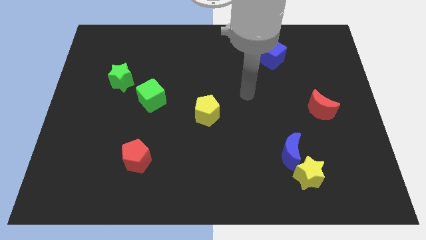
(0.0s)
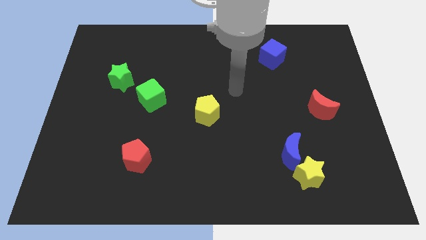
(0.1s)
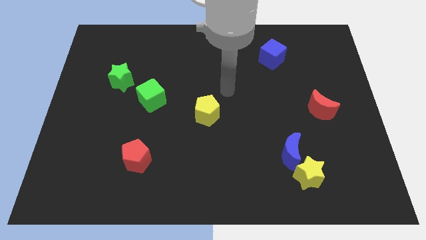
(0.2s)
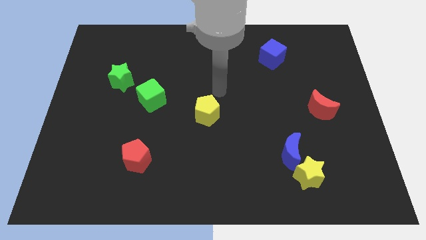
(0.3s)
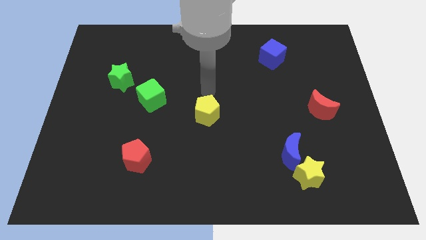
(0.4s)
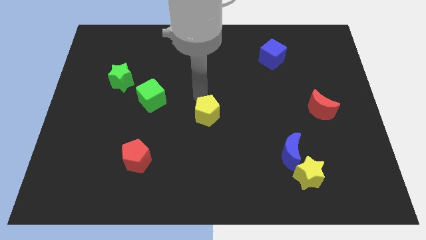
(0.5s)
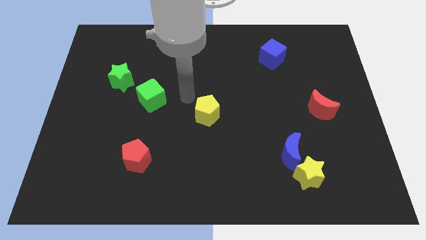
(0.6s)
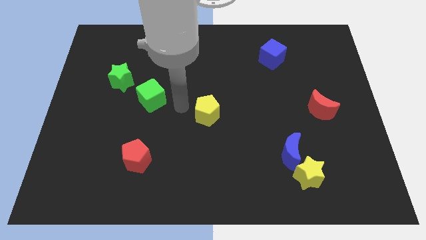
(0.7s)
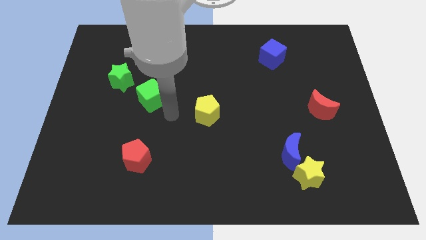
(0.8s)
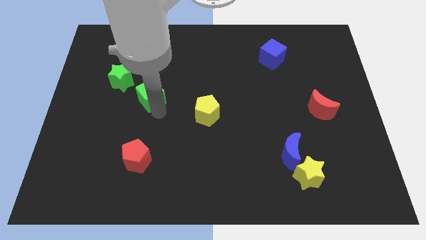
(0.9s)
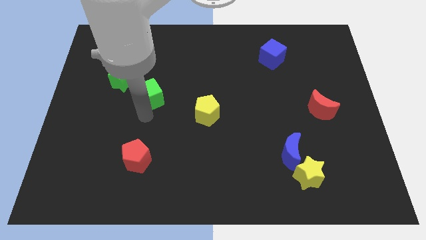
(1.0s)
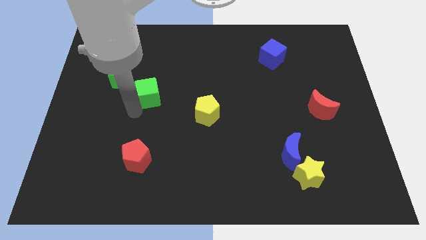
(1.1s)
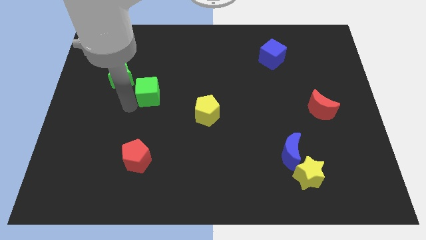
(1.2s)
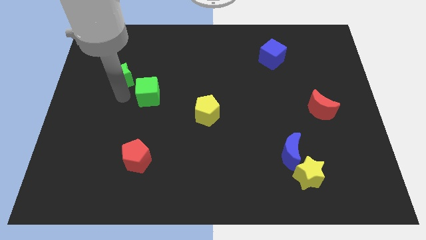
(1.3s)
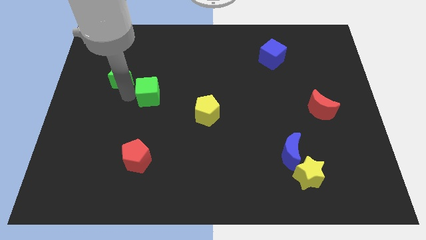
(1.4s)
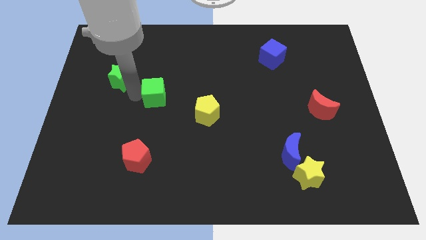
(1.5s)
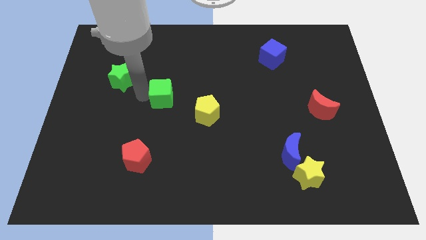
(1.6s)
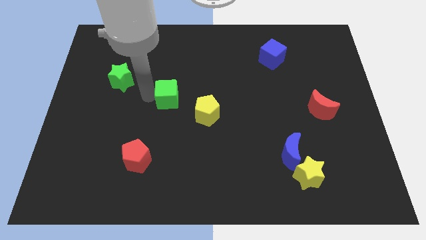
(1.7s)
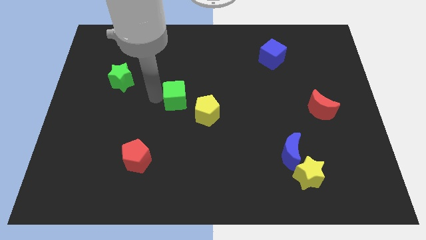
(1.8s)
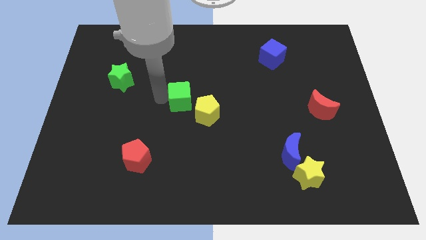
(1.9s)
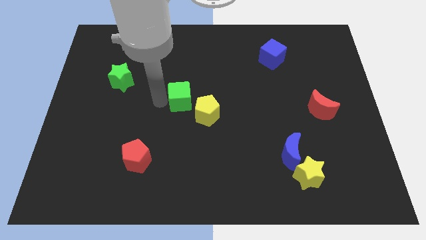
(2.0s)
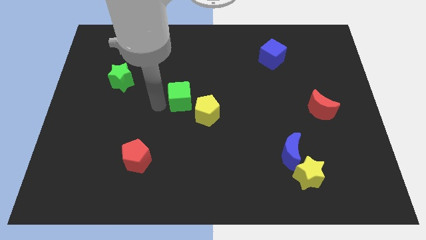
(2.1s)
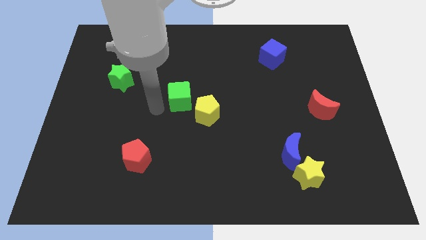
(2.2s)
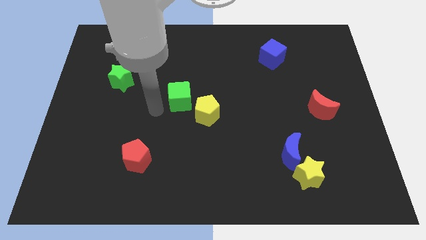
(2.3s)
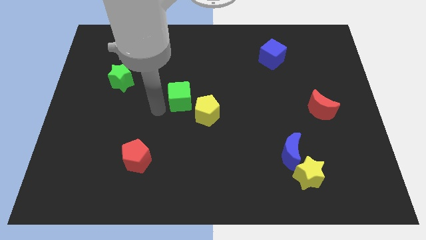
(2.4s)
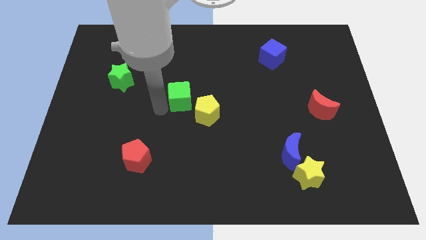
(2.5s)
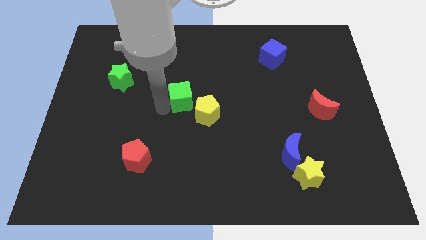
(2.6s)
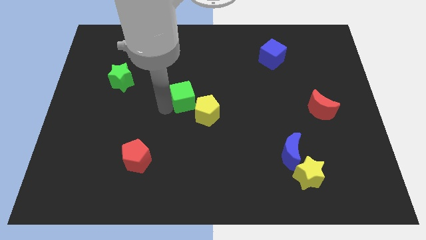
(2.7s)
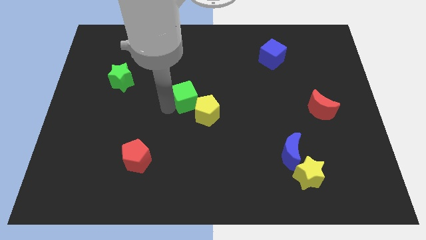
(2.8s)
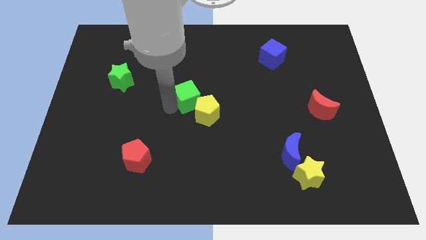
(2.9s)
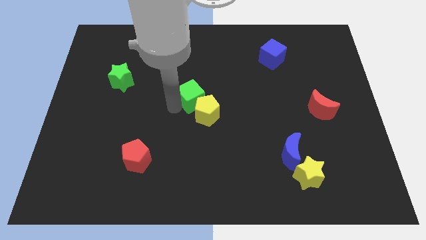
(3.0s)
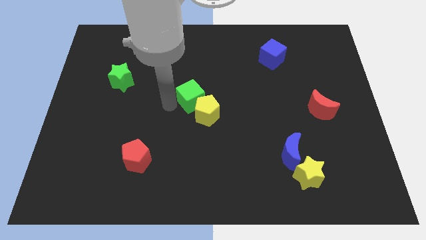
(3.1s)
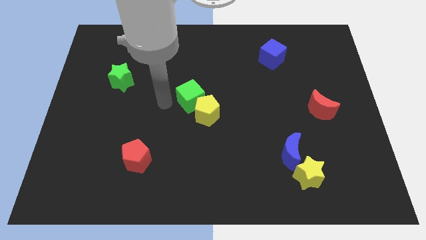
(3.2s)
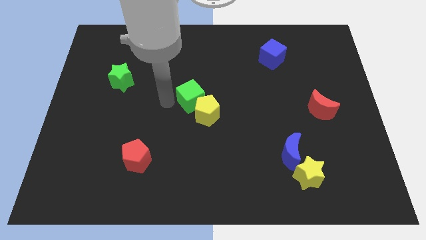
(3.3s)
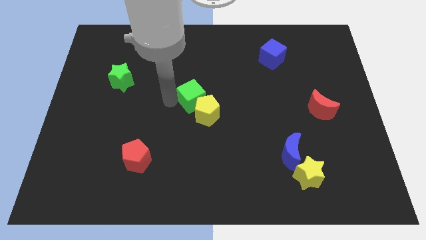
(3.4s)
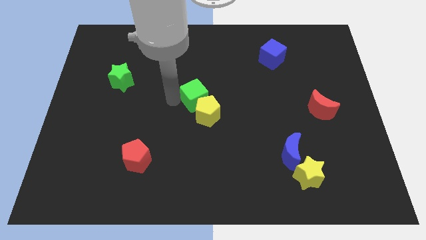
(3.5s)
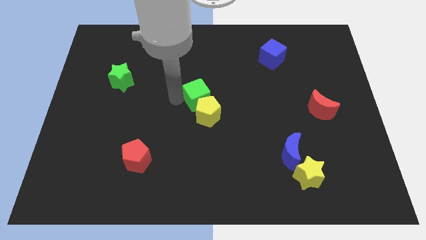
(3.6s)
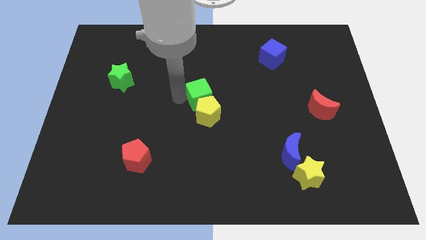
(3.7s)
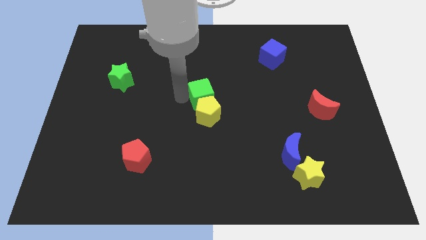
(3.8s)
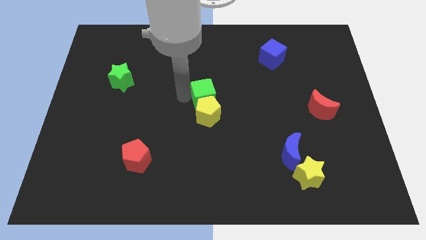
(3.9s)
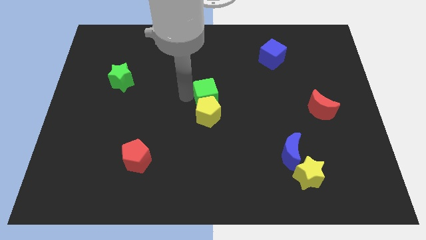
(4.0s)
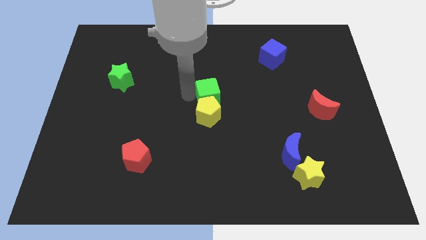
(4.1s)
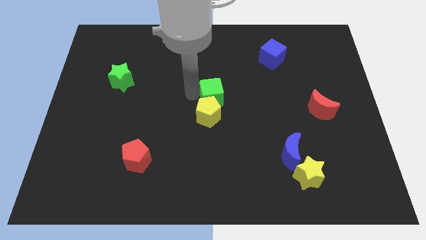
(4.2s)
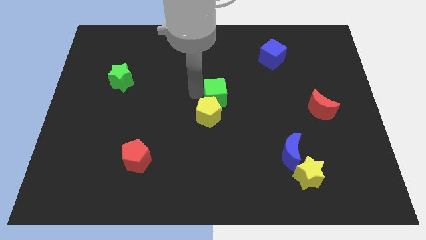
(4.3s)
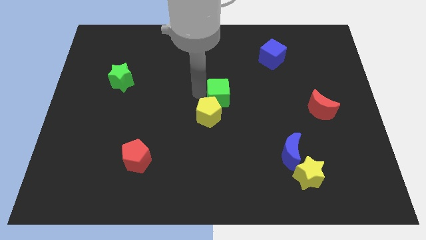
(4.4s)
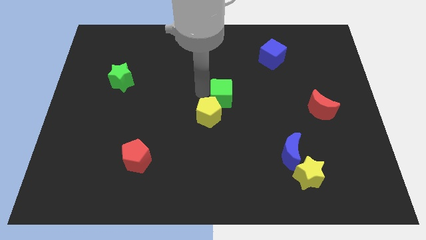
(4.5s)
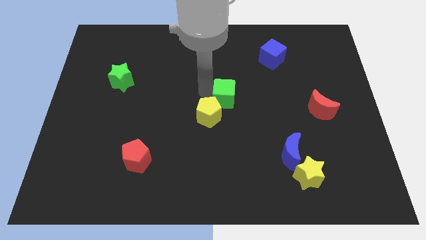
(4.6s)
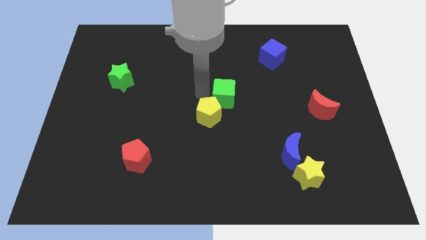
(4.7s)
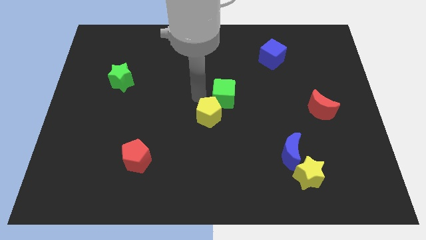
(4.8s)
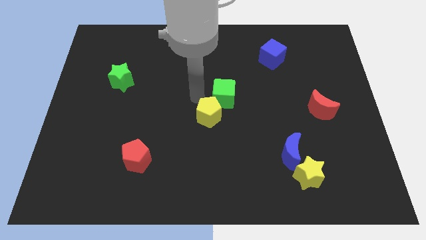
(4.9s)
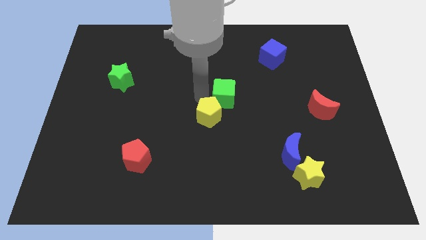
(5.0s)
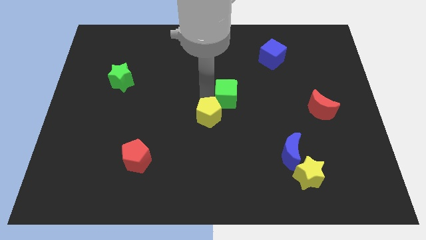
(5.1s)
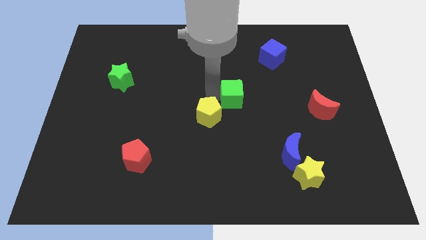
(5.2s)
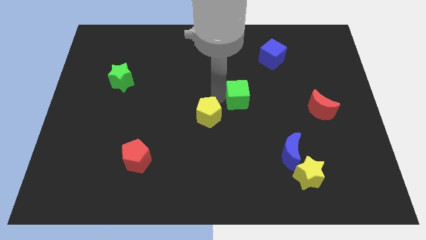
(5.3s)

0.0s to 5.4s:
push the green cube to the right

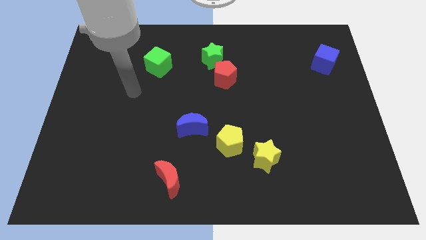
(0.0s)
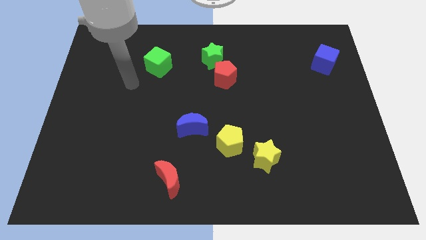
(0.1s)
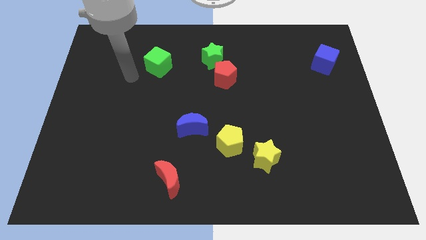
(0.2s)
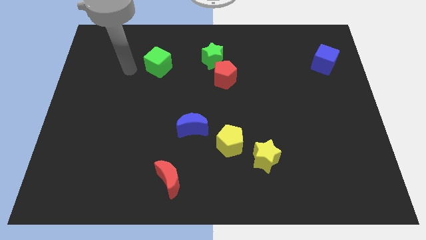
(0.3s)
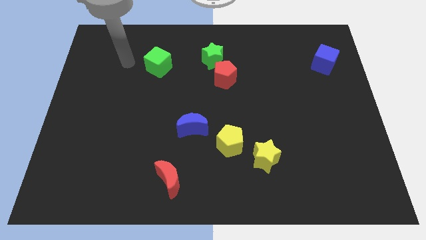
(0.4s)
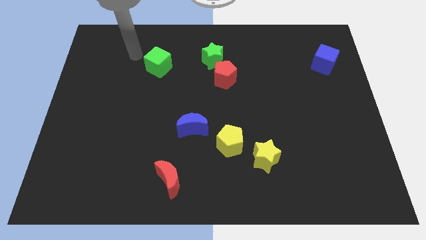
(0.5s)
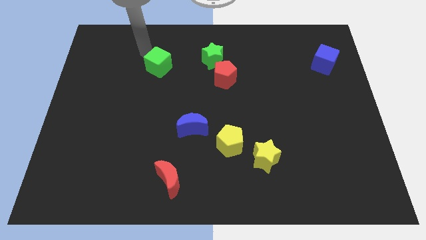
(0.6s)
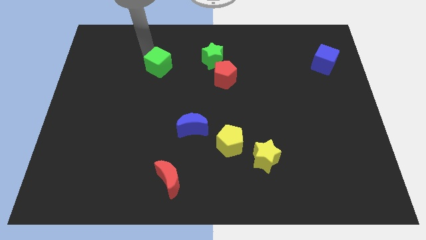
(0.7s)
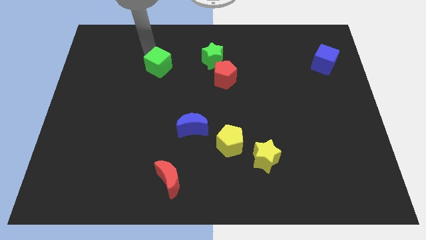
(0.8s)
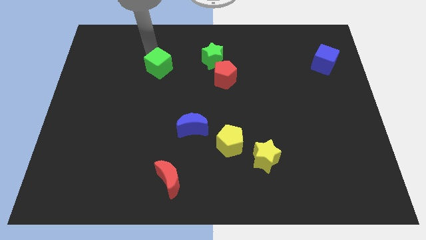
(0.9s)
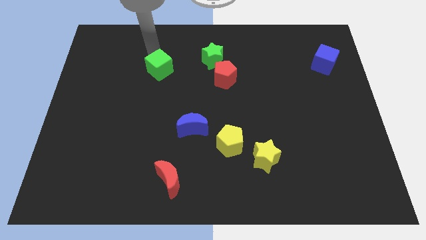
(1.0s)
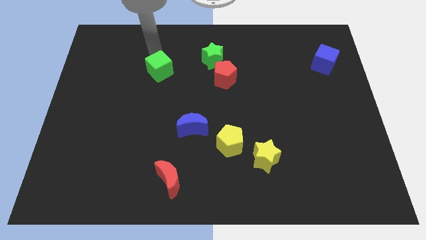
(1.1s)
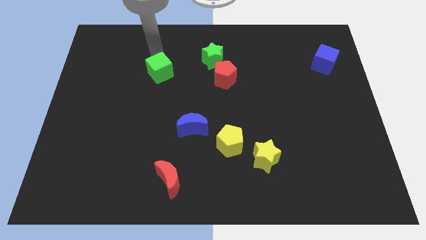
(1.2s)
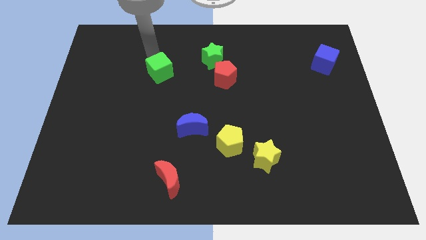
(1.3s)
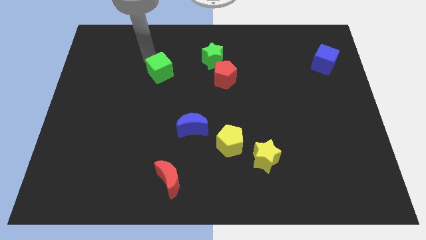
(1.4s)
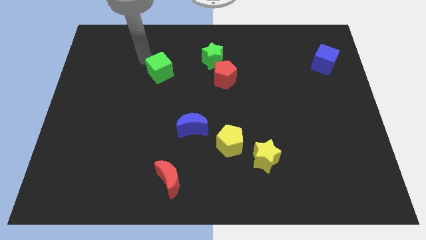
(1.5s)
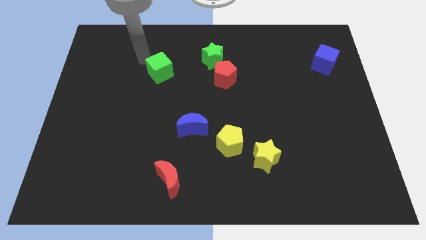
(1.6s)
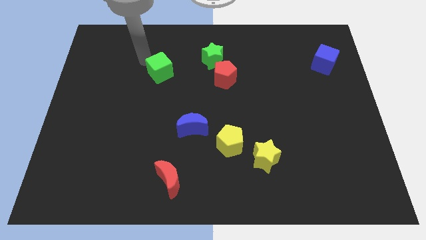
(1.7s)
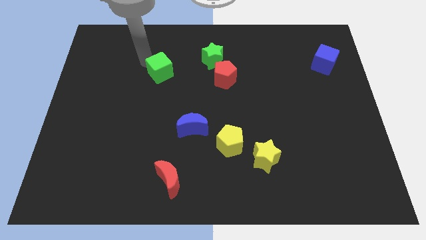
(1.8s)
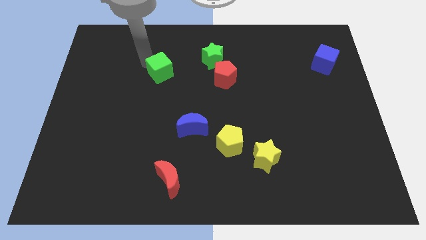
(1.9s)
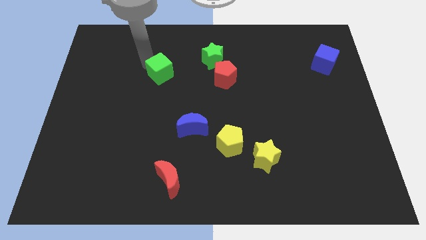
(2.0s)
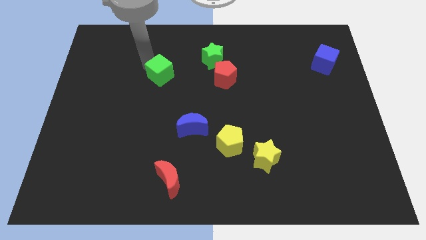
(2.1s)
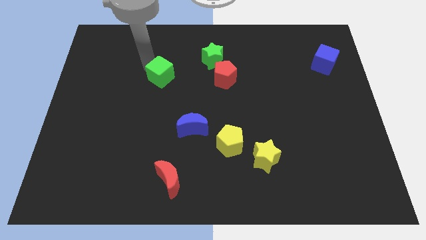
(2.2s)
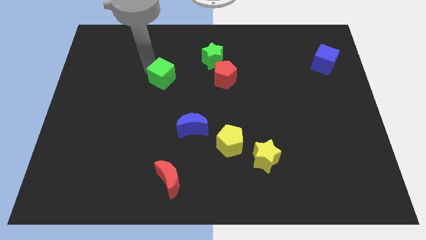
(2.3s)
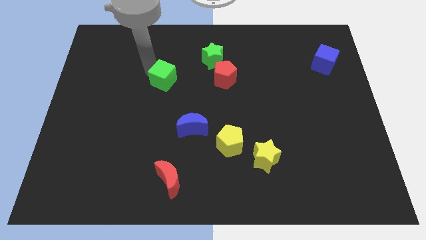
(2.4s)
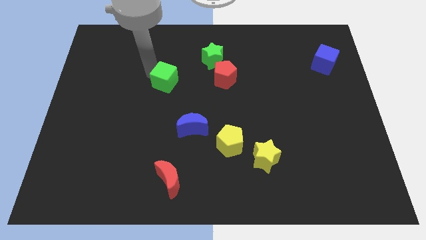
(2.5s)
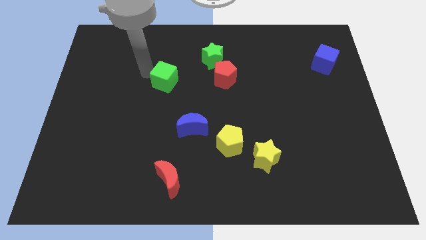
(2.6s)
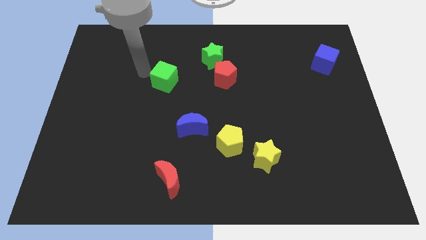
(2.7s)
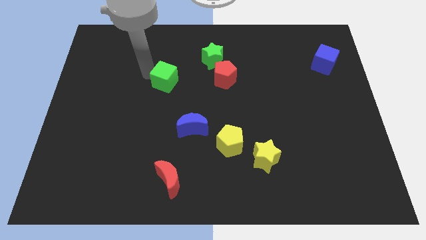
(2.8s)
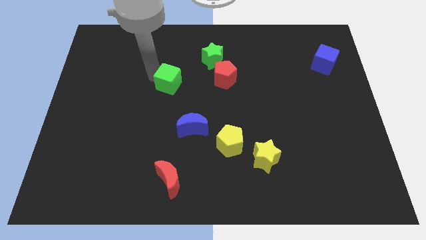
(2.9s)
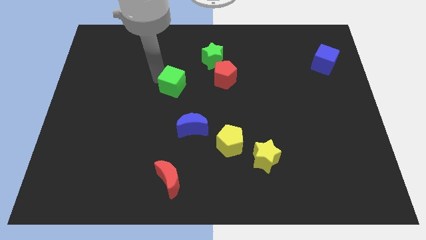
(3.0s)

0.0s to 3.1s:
push the green cube downwards and right a little
